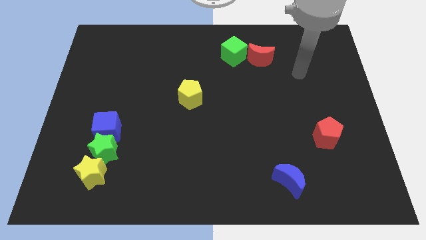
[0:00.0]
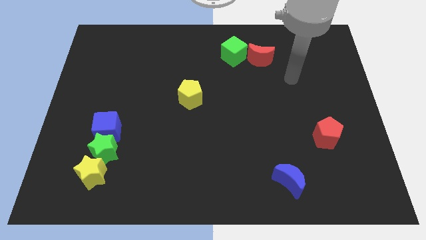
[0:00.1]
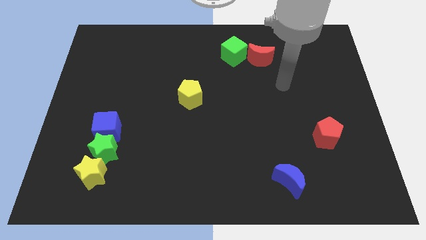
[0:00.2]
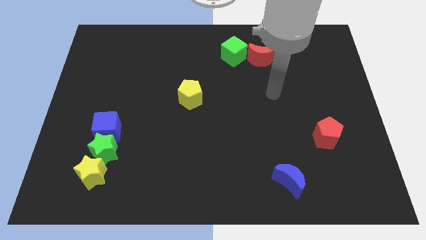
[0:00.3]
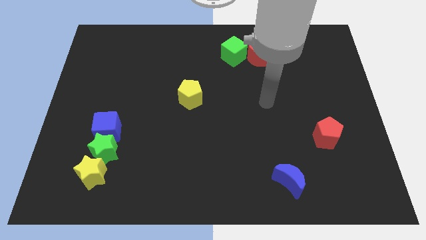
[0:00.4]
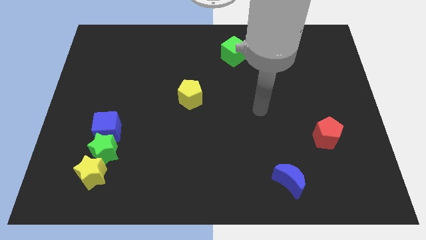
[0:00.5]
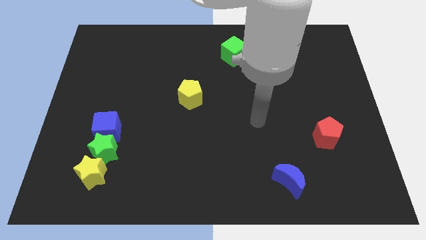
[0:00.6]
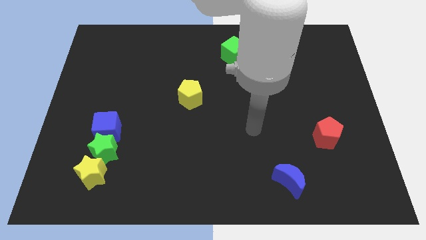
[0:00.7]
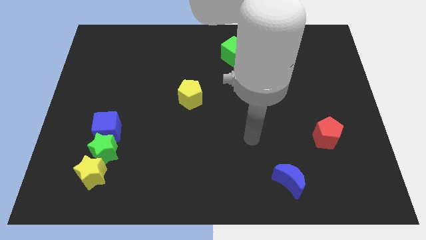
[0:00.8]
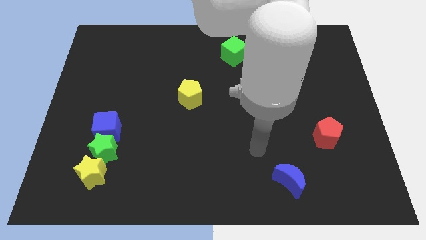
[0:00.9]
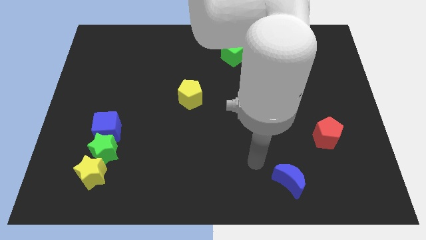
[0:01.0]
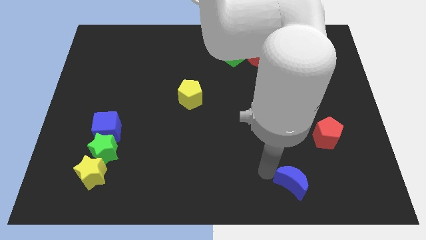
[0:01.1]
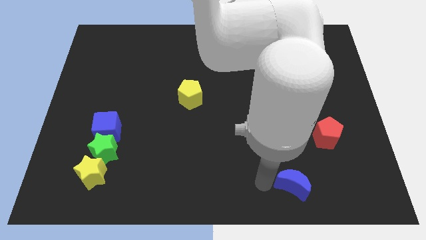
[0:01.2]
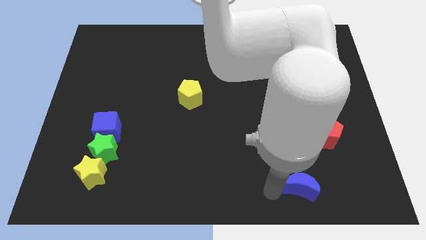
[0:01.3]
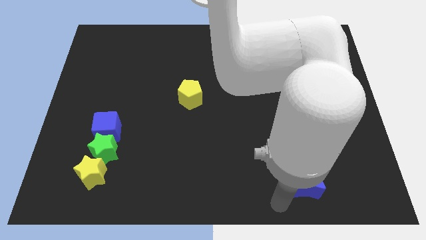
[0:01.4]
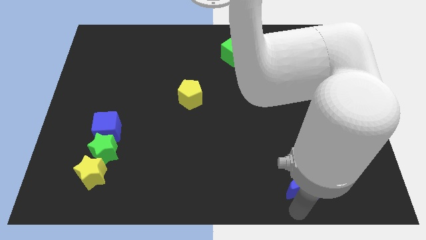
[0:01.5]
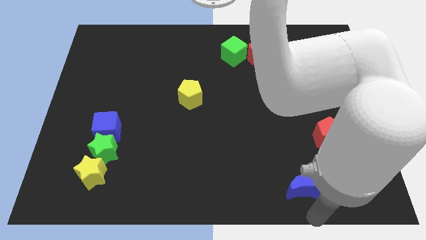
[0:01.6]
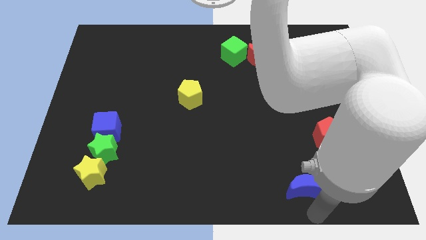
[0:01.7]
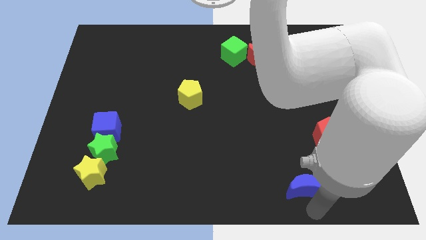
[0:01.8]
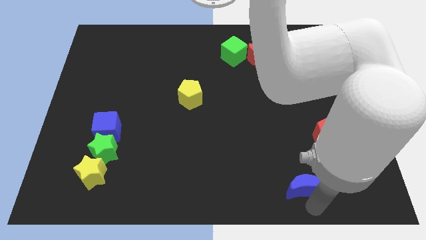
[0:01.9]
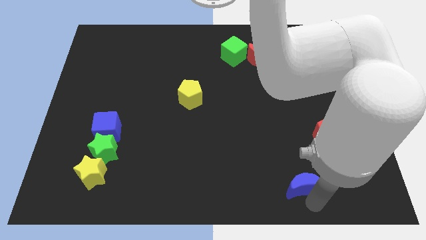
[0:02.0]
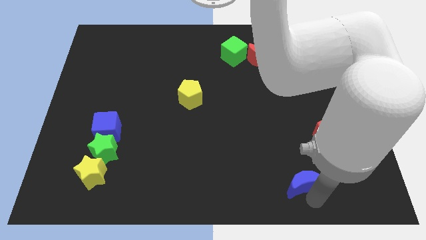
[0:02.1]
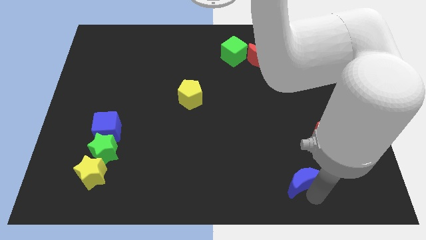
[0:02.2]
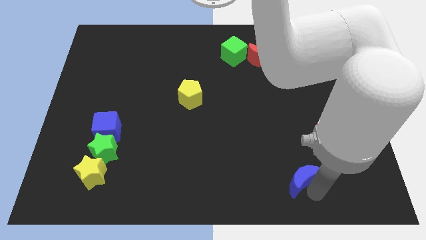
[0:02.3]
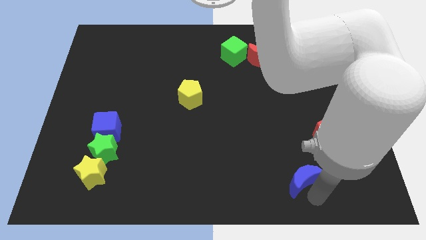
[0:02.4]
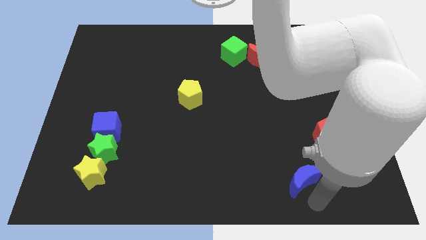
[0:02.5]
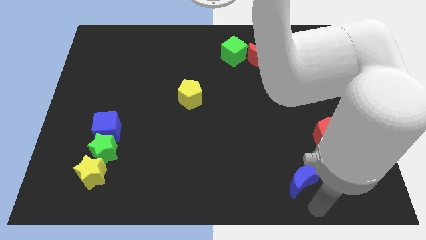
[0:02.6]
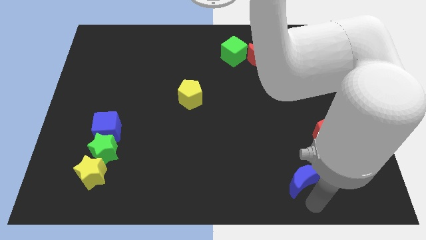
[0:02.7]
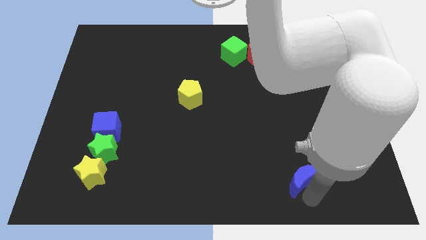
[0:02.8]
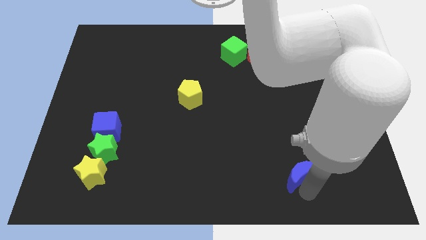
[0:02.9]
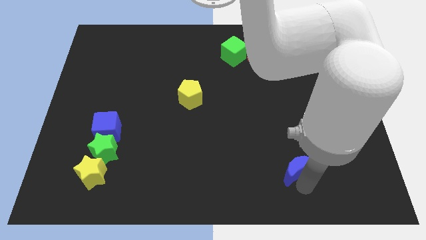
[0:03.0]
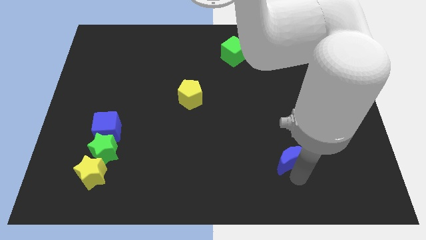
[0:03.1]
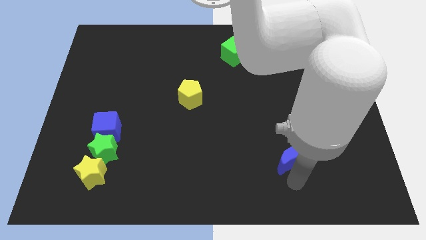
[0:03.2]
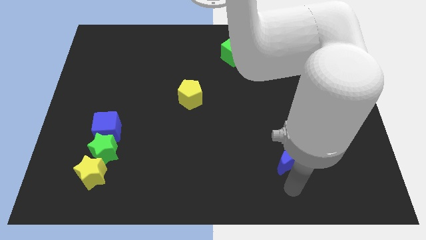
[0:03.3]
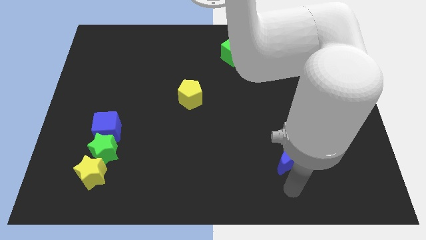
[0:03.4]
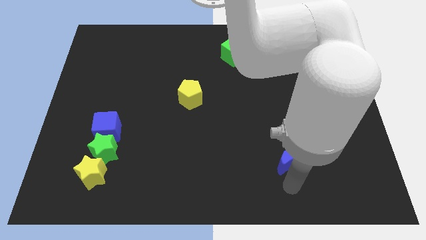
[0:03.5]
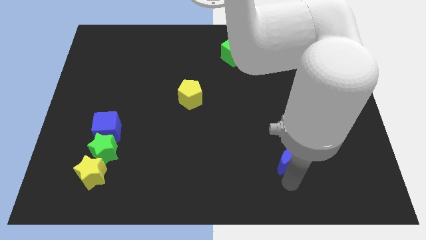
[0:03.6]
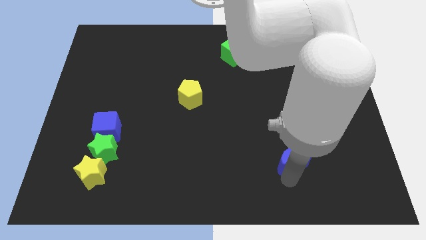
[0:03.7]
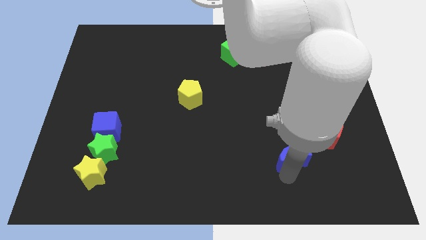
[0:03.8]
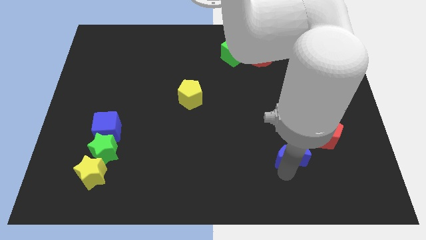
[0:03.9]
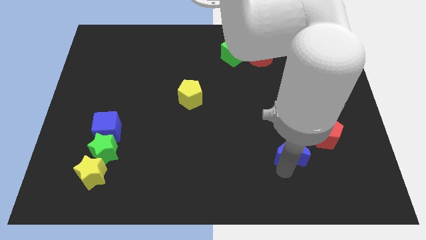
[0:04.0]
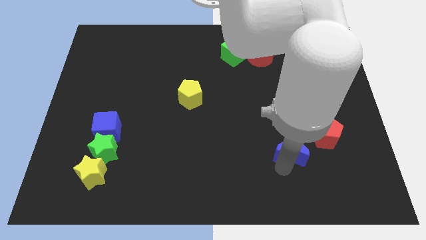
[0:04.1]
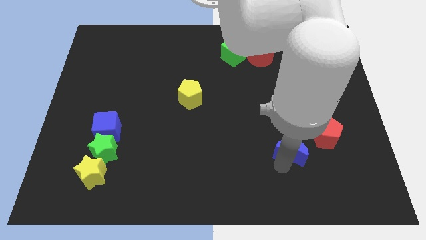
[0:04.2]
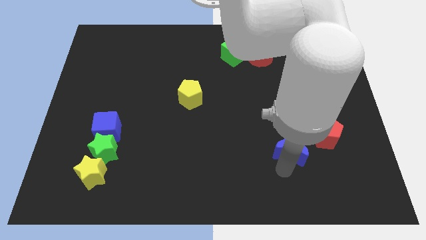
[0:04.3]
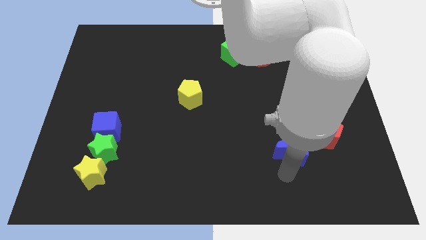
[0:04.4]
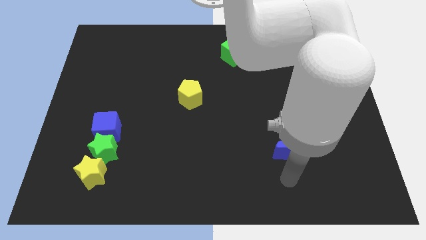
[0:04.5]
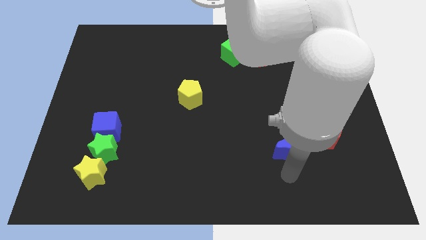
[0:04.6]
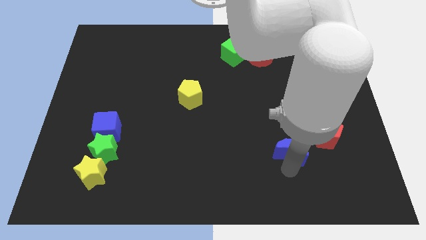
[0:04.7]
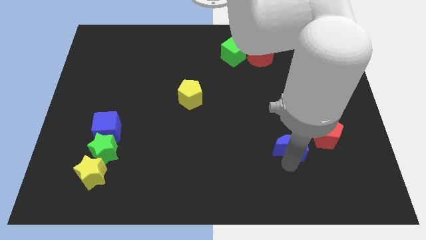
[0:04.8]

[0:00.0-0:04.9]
move the blue moon somewhat upwards

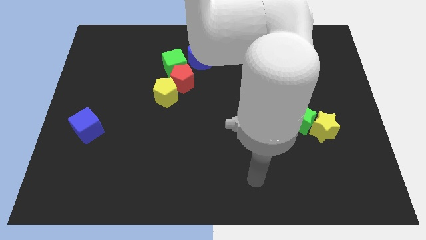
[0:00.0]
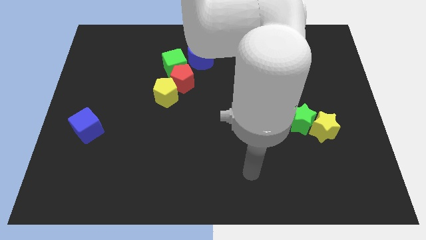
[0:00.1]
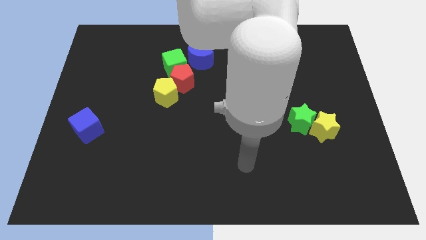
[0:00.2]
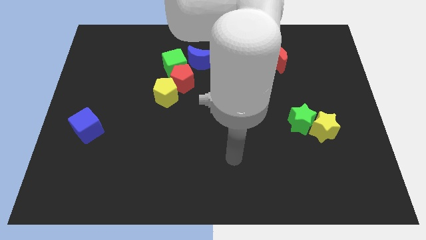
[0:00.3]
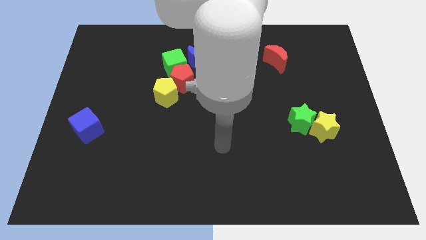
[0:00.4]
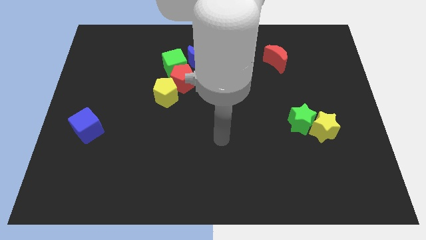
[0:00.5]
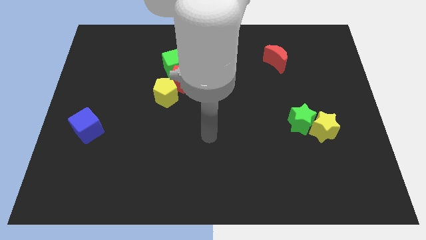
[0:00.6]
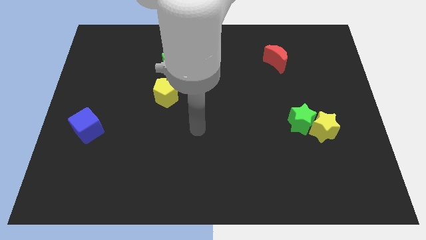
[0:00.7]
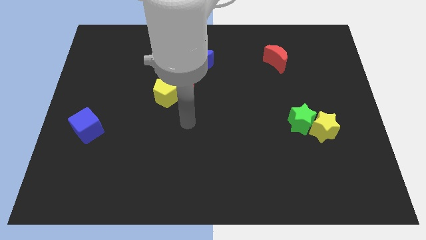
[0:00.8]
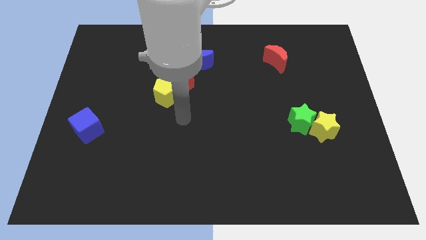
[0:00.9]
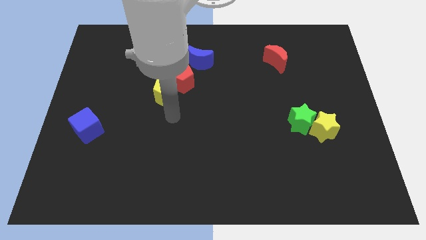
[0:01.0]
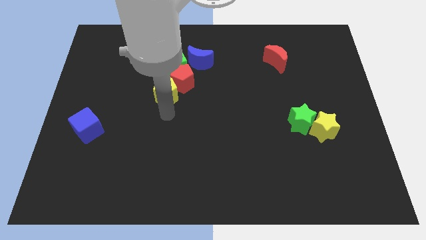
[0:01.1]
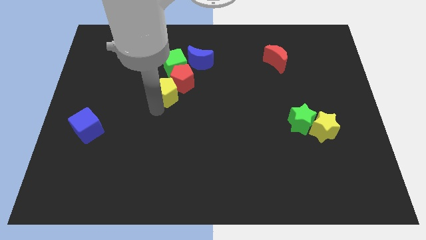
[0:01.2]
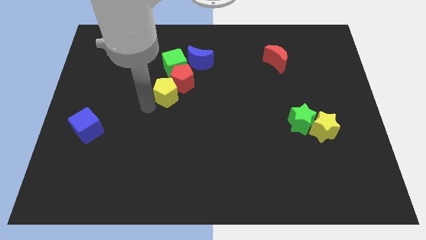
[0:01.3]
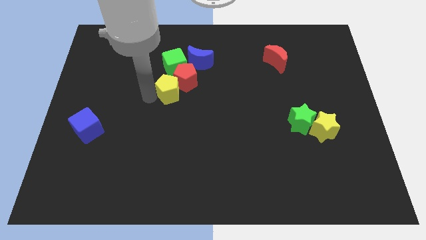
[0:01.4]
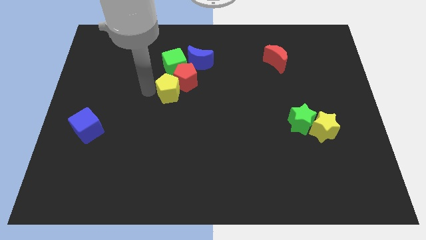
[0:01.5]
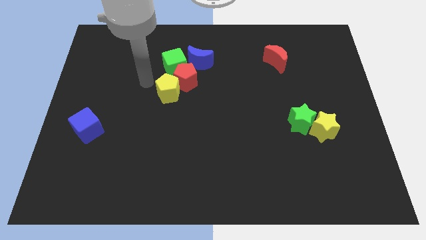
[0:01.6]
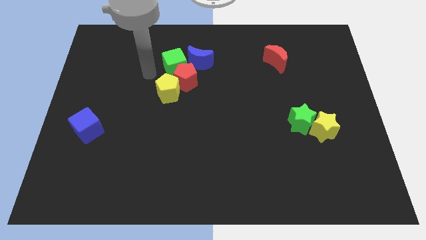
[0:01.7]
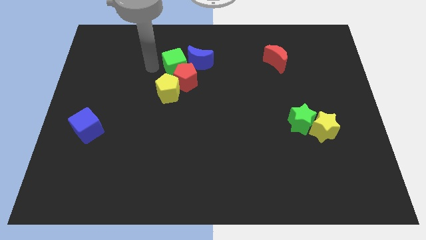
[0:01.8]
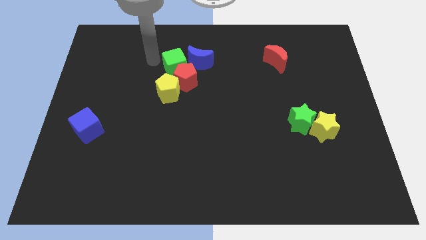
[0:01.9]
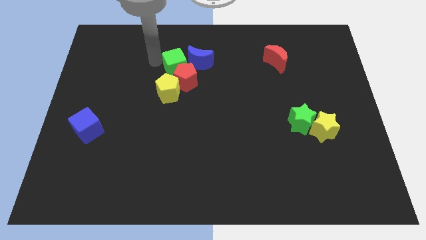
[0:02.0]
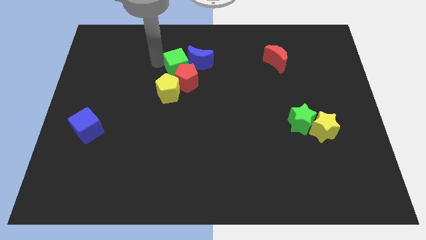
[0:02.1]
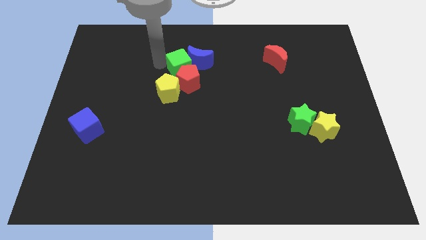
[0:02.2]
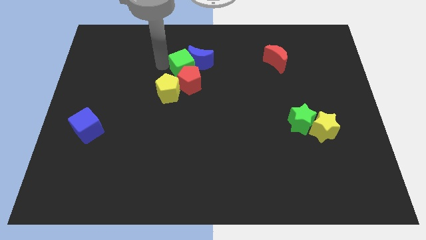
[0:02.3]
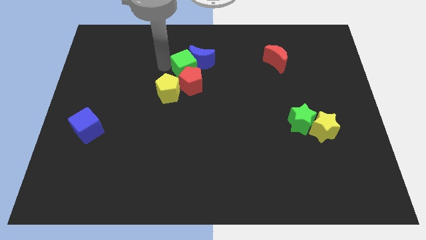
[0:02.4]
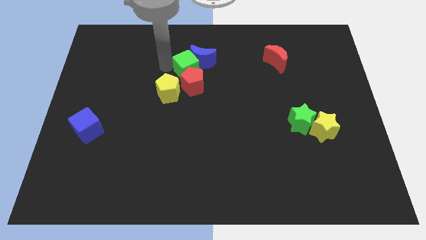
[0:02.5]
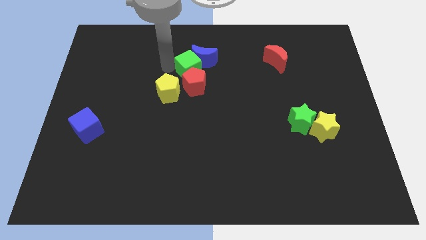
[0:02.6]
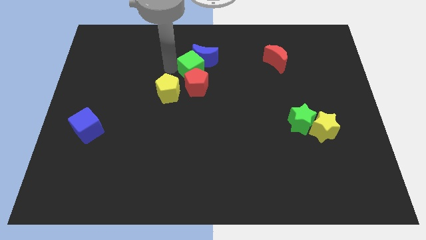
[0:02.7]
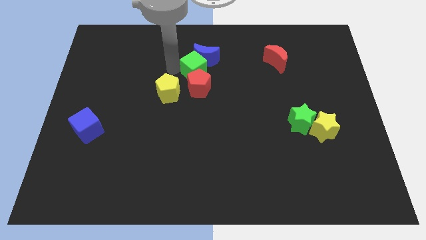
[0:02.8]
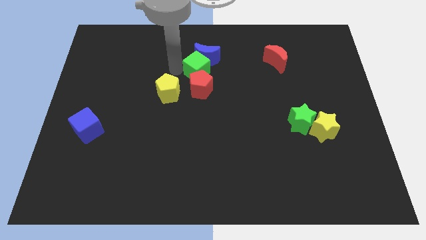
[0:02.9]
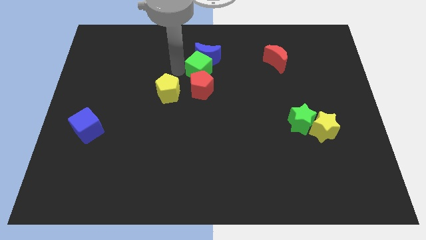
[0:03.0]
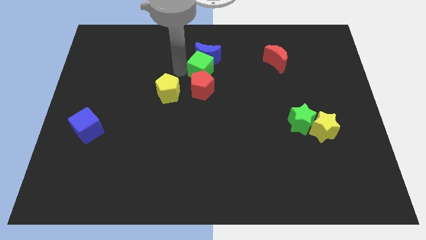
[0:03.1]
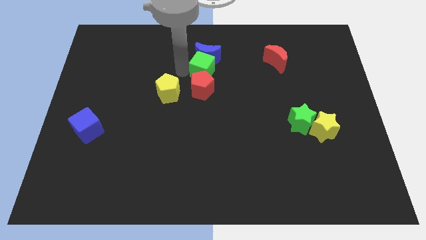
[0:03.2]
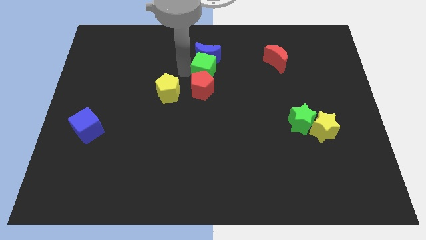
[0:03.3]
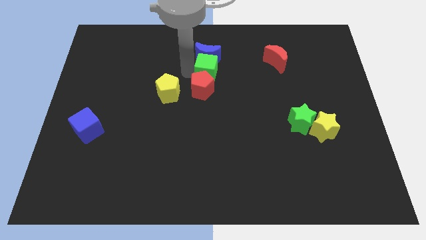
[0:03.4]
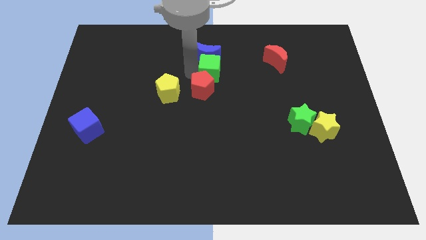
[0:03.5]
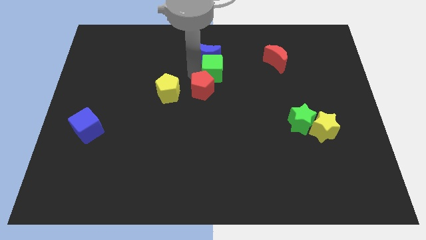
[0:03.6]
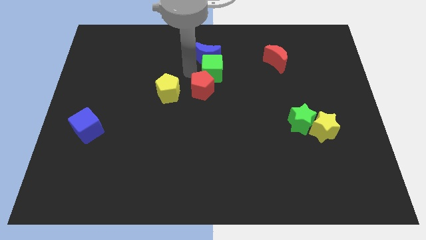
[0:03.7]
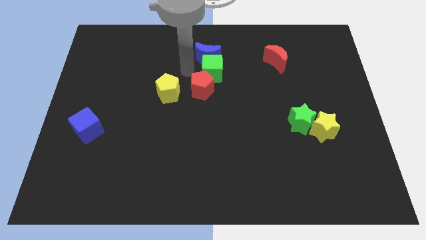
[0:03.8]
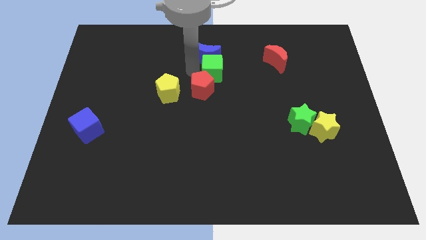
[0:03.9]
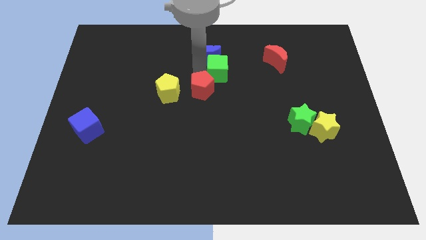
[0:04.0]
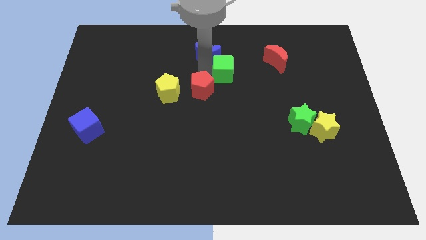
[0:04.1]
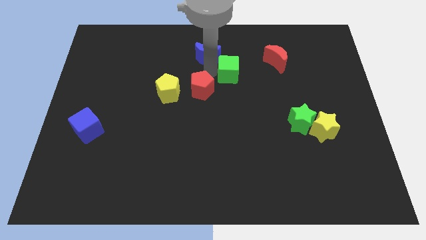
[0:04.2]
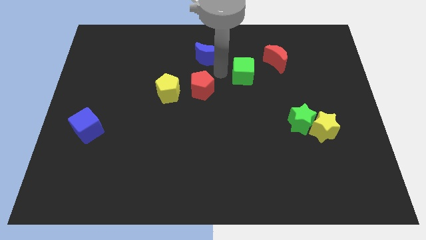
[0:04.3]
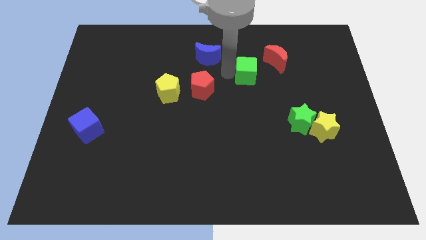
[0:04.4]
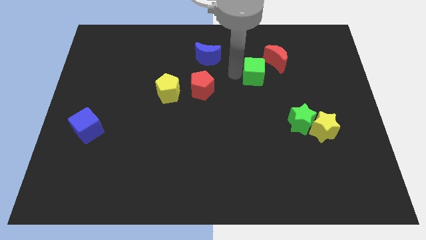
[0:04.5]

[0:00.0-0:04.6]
move the green cube to the right
